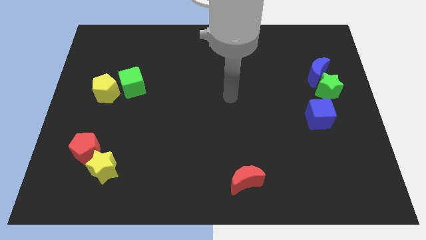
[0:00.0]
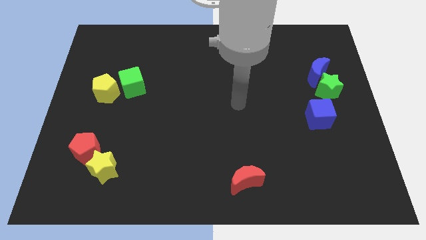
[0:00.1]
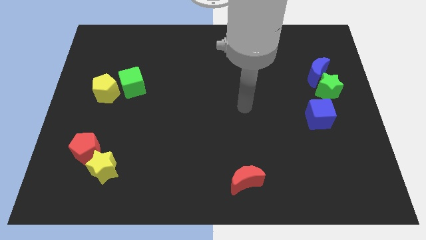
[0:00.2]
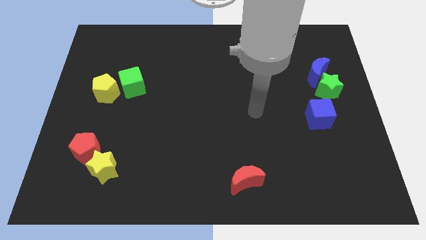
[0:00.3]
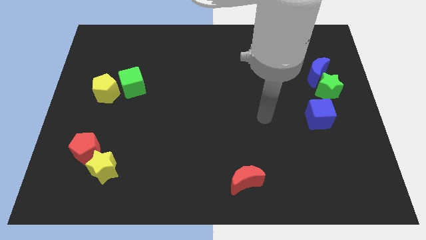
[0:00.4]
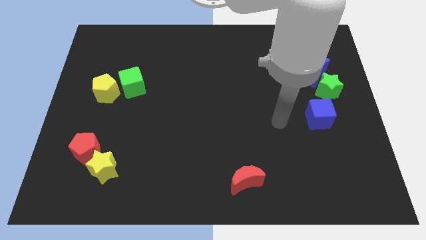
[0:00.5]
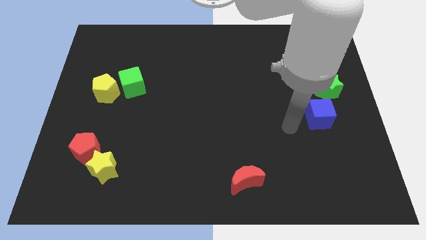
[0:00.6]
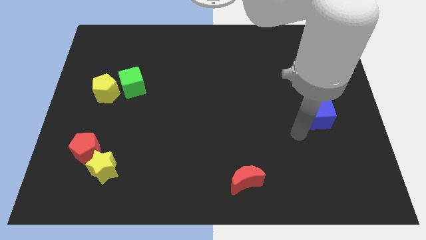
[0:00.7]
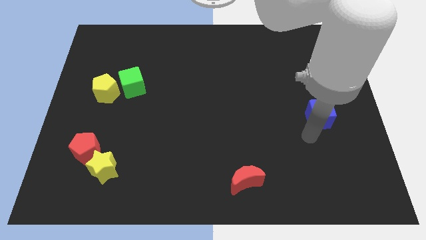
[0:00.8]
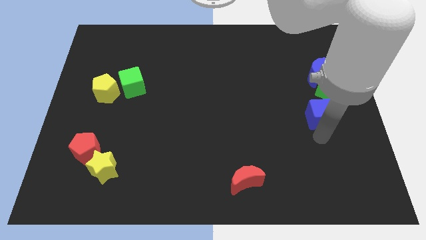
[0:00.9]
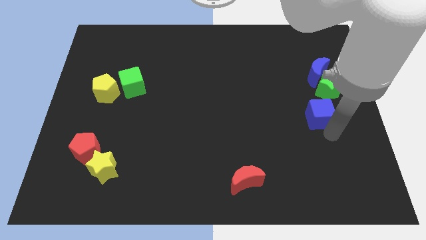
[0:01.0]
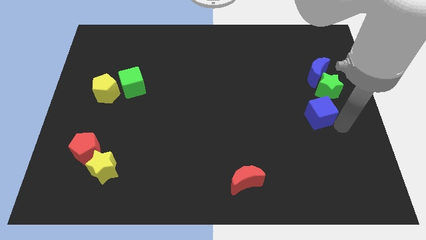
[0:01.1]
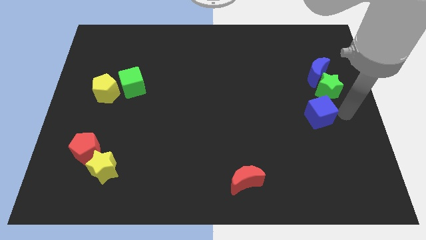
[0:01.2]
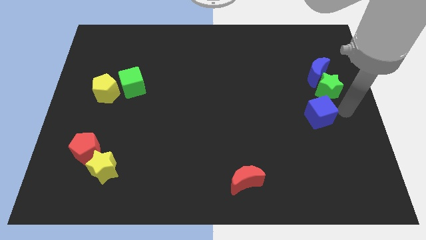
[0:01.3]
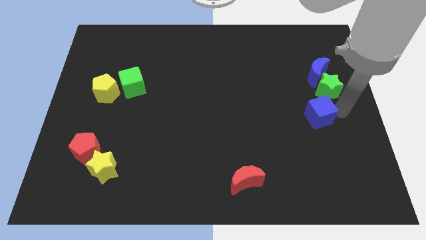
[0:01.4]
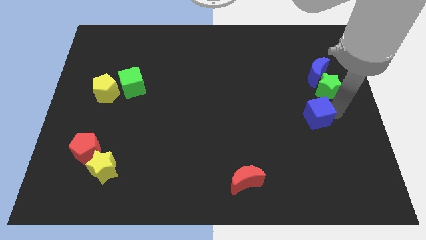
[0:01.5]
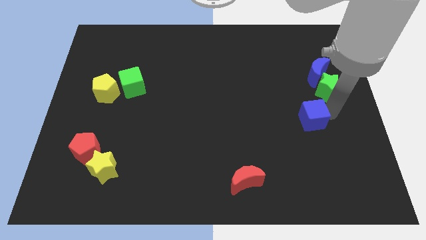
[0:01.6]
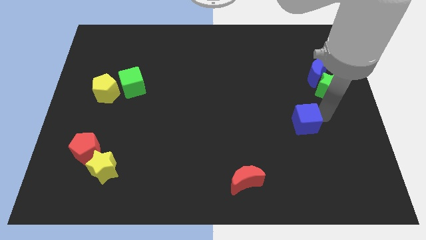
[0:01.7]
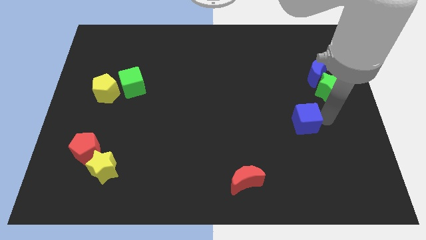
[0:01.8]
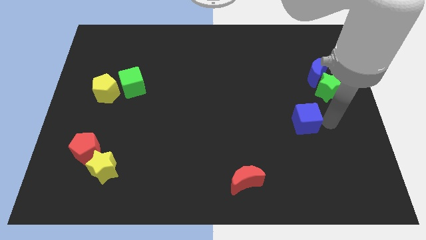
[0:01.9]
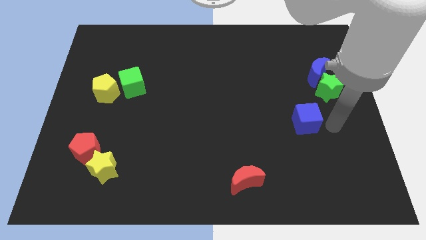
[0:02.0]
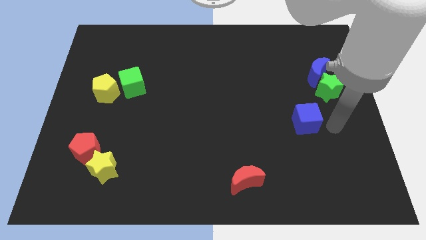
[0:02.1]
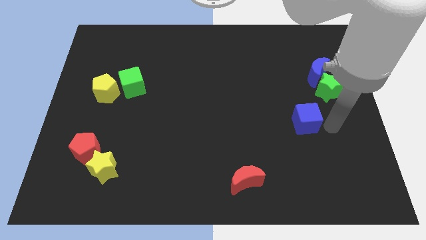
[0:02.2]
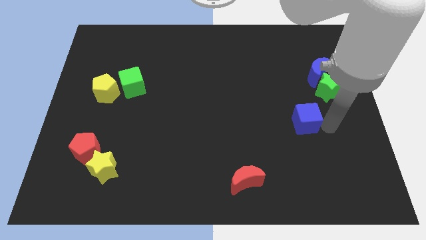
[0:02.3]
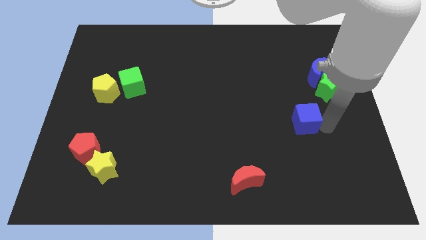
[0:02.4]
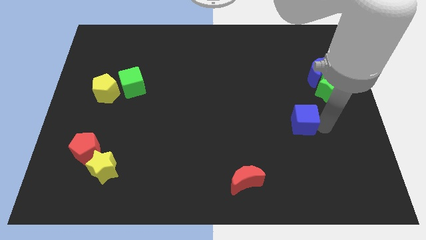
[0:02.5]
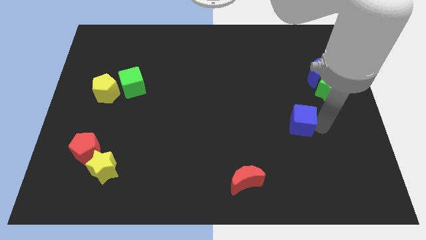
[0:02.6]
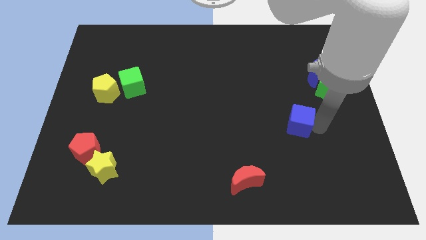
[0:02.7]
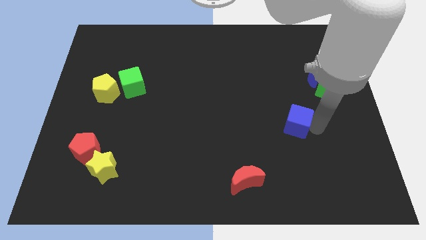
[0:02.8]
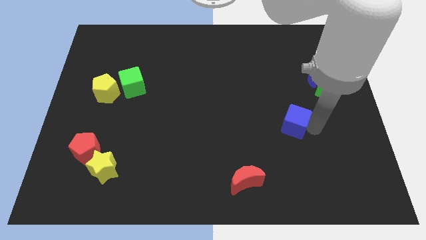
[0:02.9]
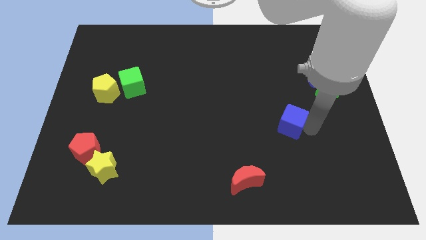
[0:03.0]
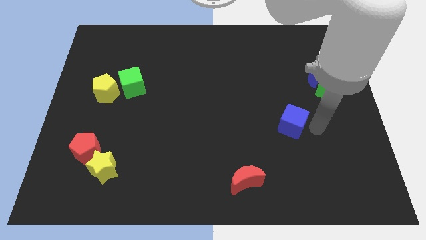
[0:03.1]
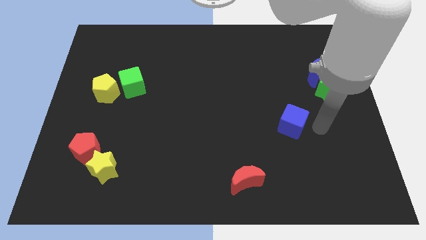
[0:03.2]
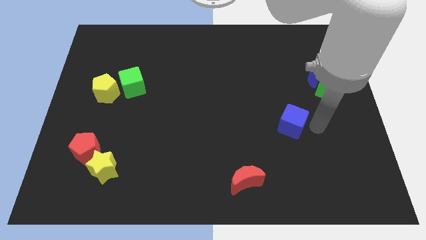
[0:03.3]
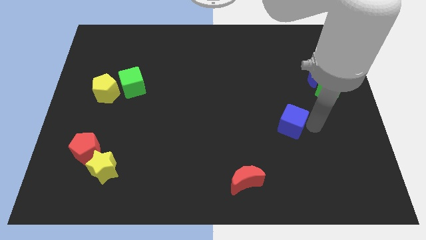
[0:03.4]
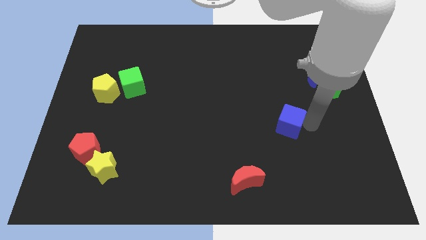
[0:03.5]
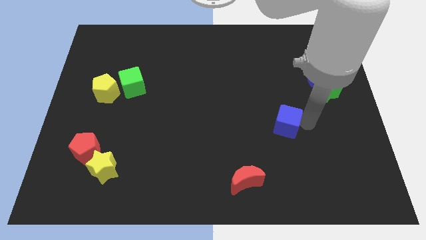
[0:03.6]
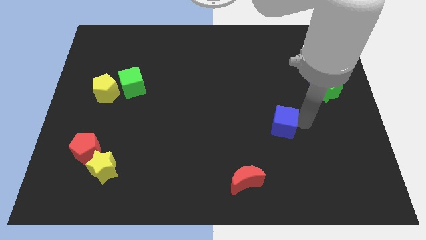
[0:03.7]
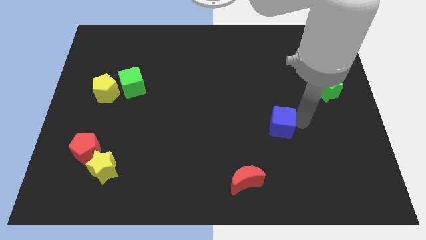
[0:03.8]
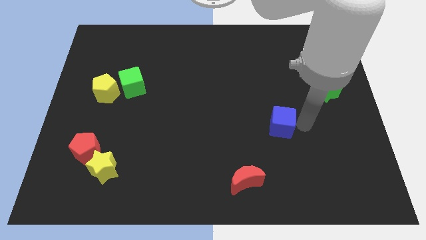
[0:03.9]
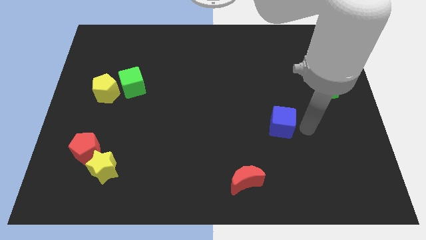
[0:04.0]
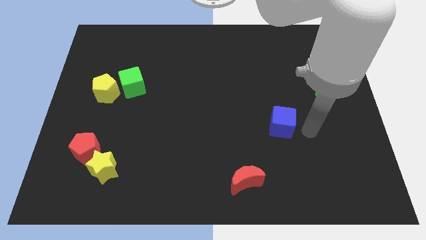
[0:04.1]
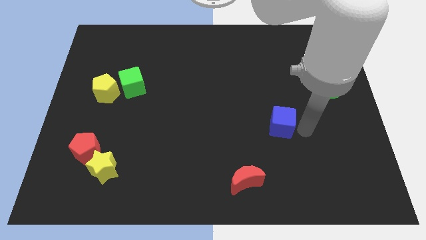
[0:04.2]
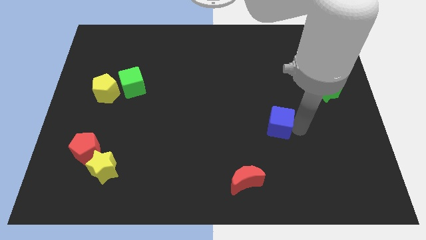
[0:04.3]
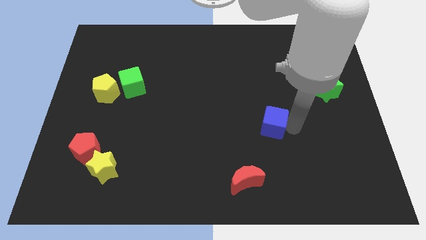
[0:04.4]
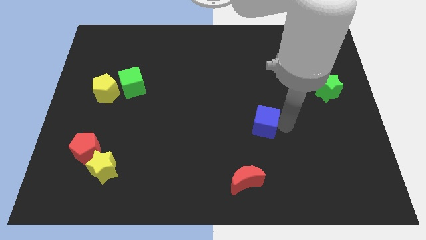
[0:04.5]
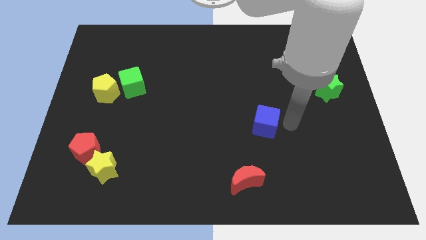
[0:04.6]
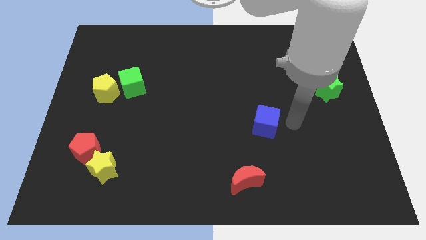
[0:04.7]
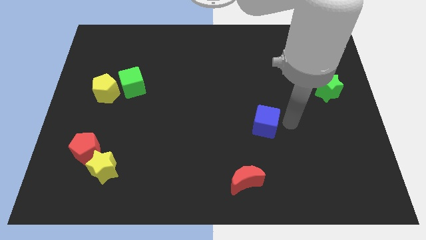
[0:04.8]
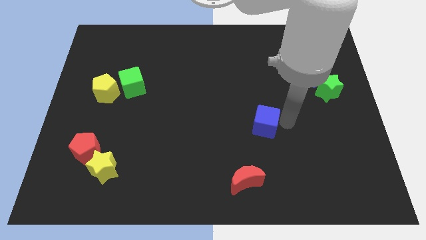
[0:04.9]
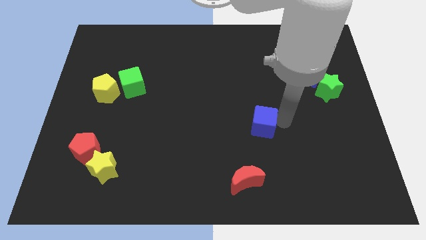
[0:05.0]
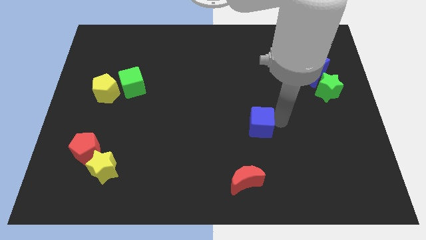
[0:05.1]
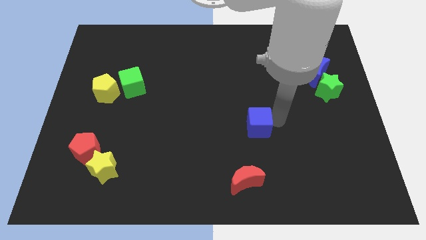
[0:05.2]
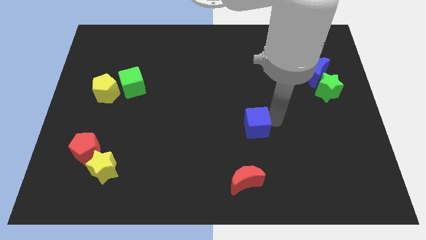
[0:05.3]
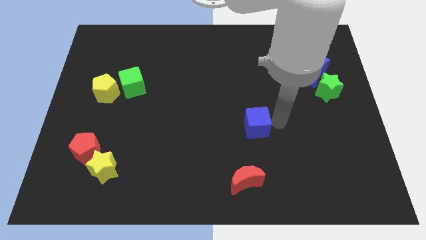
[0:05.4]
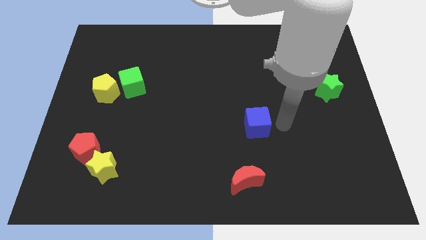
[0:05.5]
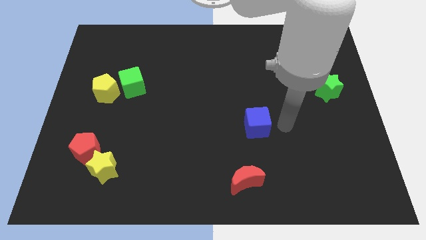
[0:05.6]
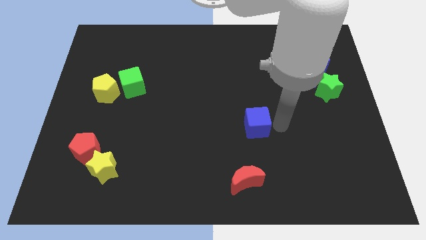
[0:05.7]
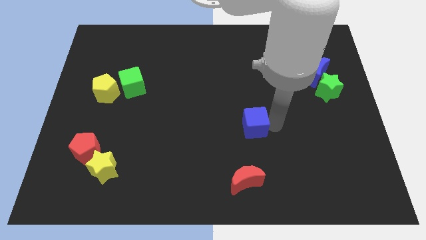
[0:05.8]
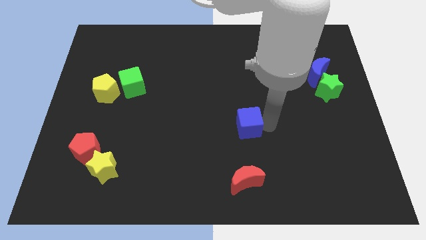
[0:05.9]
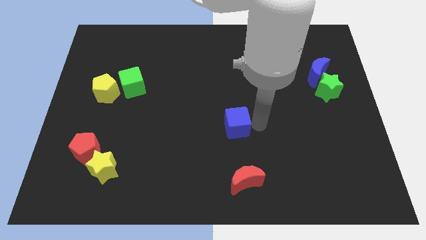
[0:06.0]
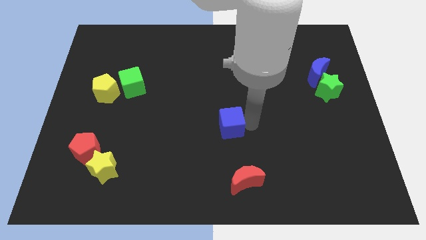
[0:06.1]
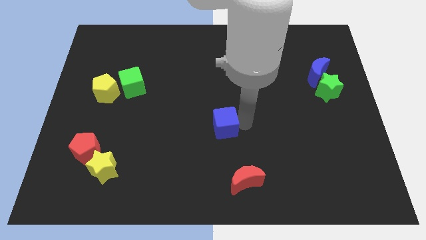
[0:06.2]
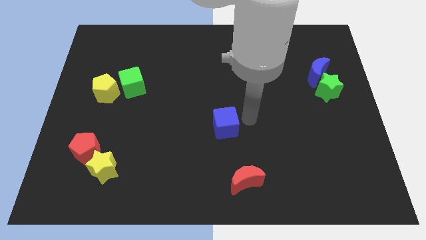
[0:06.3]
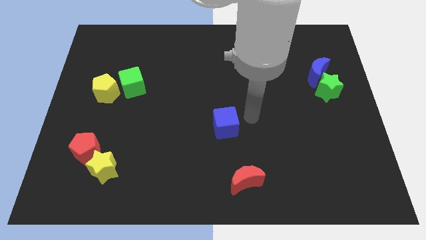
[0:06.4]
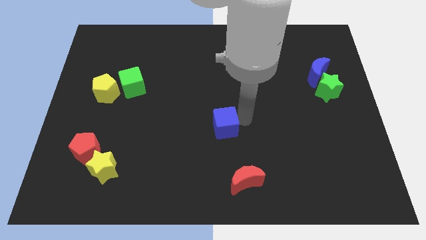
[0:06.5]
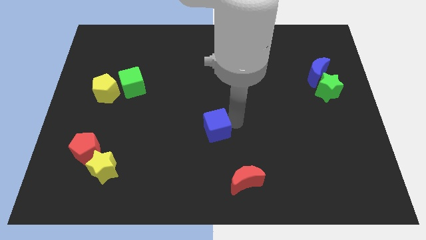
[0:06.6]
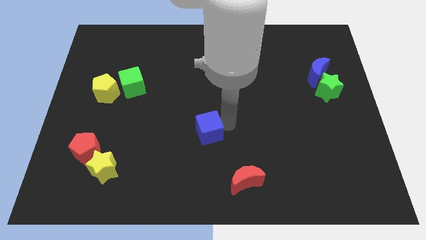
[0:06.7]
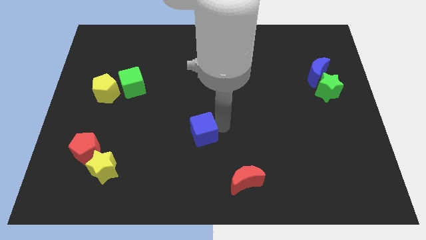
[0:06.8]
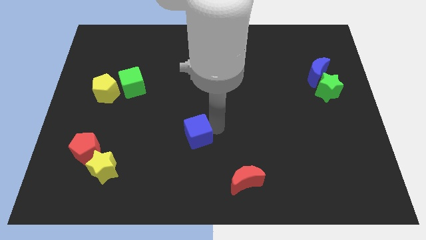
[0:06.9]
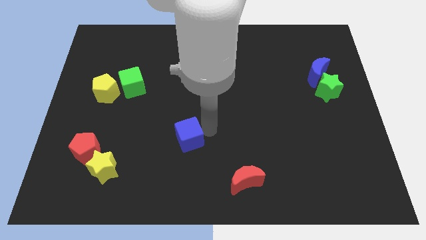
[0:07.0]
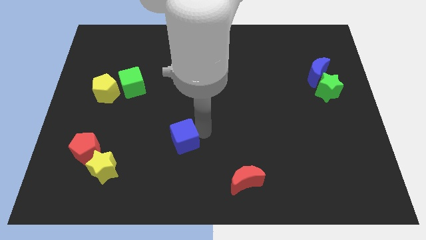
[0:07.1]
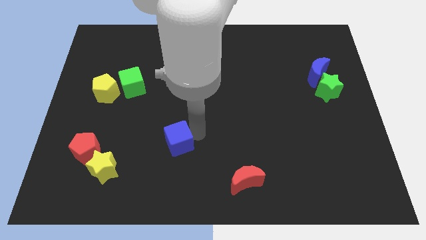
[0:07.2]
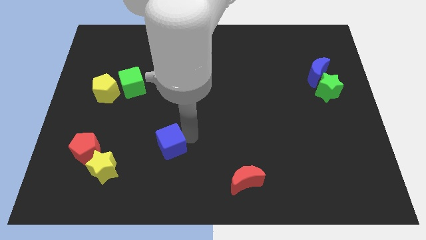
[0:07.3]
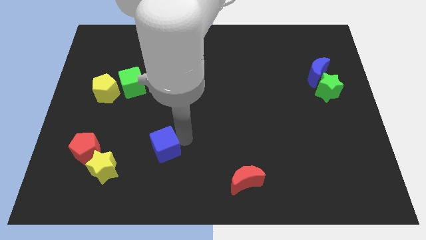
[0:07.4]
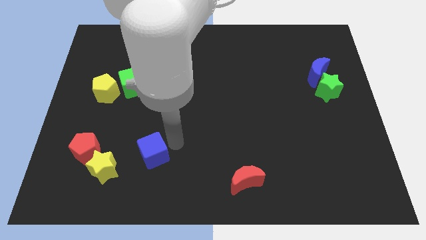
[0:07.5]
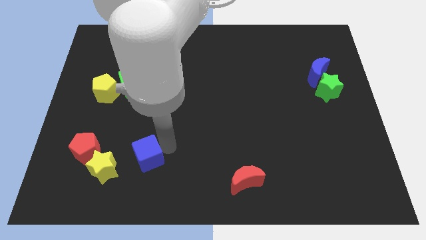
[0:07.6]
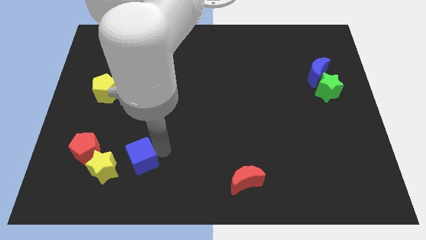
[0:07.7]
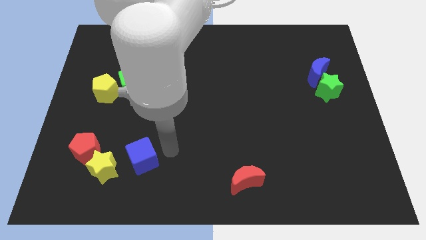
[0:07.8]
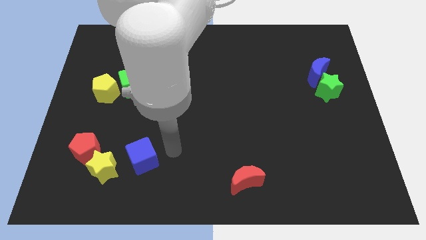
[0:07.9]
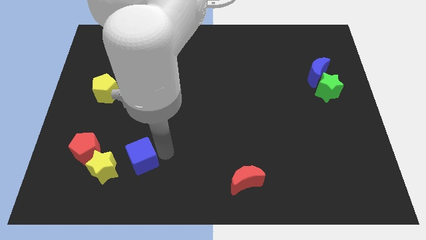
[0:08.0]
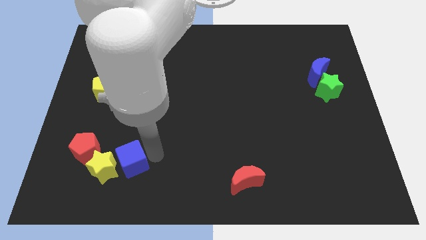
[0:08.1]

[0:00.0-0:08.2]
move the blue cube next to the yellow star
